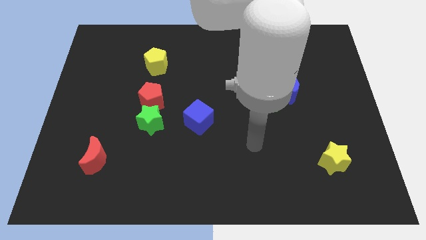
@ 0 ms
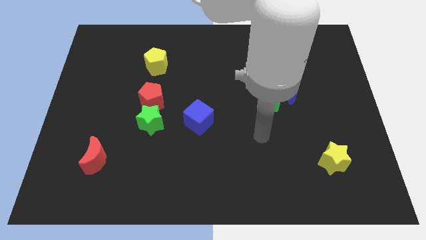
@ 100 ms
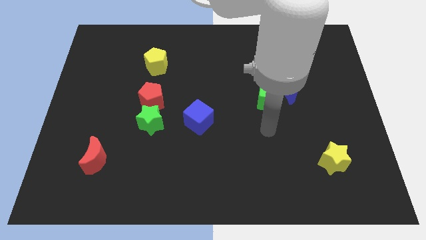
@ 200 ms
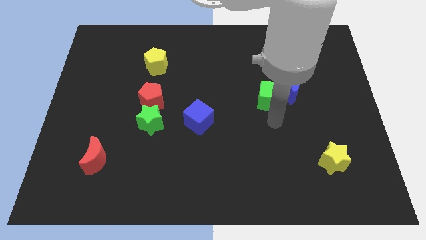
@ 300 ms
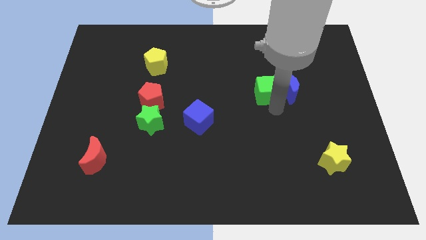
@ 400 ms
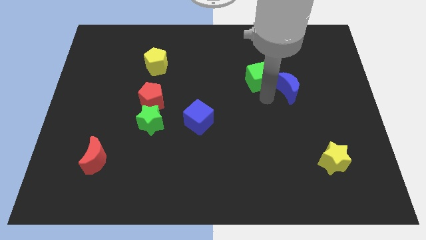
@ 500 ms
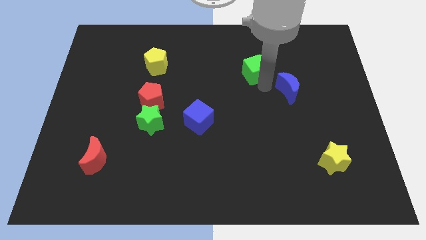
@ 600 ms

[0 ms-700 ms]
separate the blue moon from the green cube

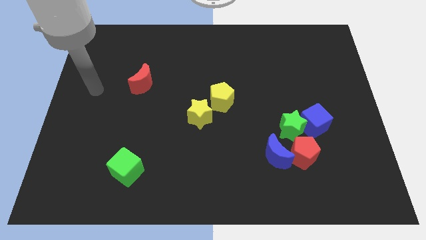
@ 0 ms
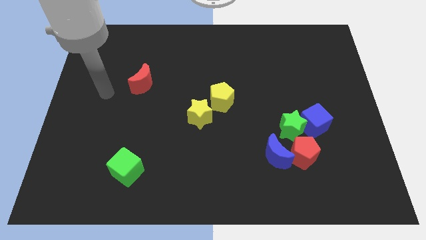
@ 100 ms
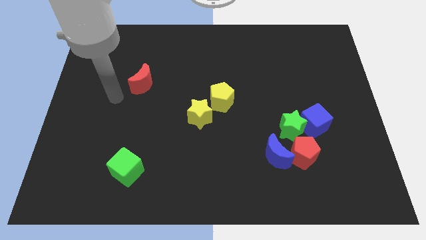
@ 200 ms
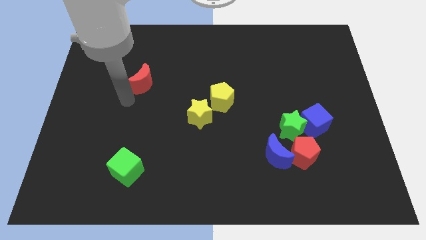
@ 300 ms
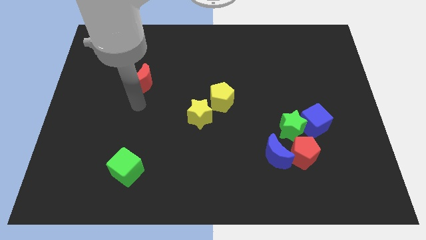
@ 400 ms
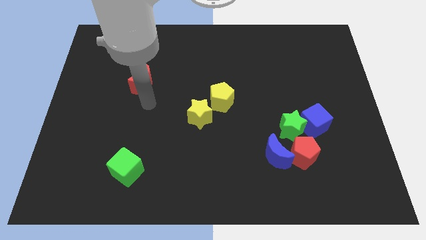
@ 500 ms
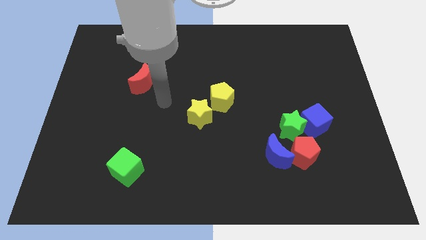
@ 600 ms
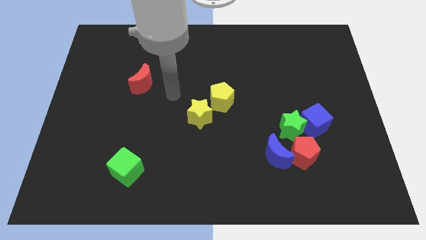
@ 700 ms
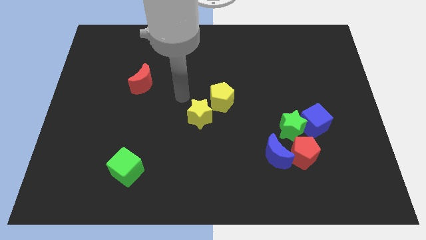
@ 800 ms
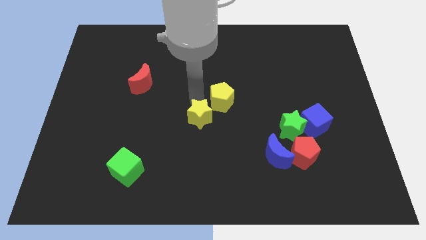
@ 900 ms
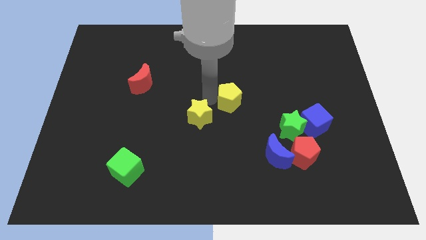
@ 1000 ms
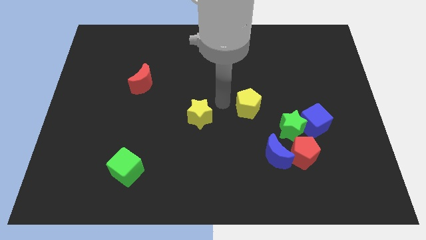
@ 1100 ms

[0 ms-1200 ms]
pull the yellow star apart from the yellow pentagon

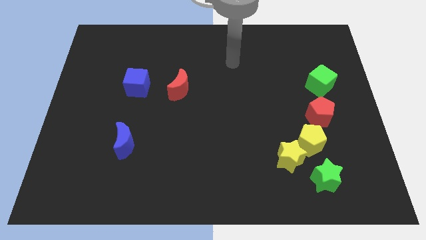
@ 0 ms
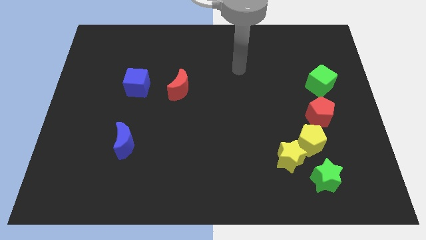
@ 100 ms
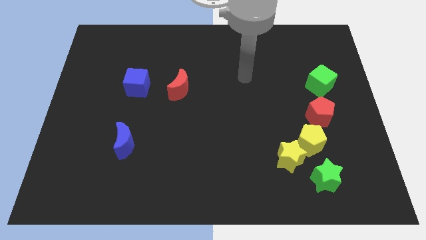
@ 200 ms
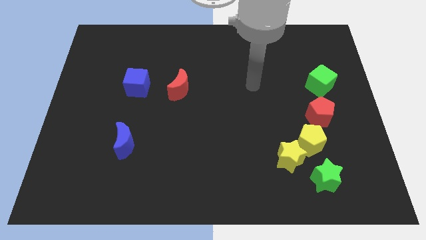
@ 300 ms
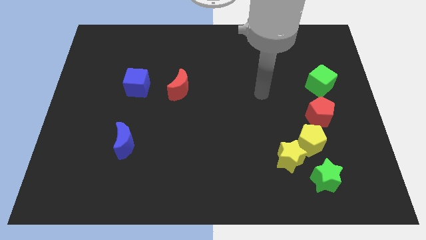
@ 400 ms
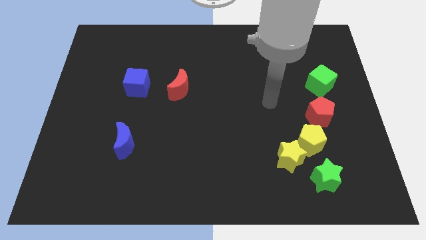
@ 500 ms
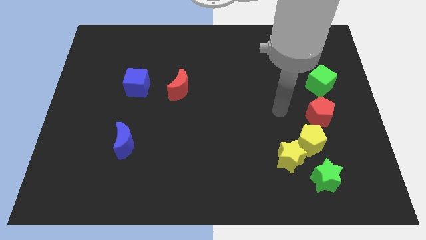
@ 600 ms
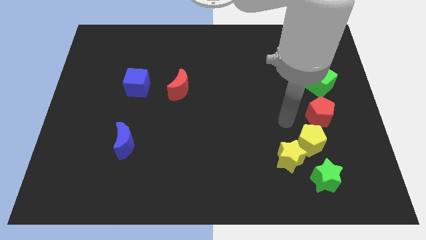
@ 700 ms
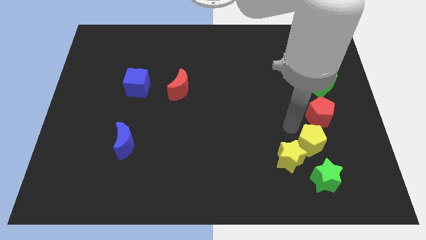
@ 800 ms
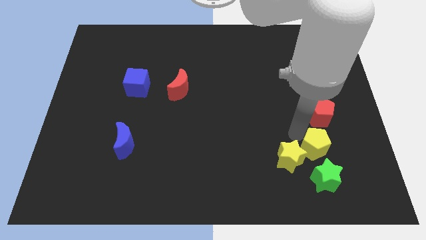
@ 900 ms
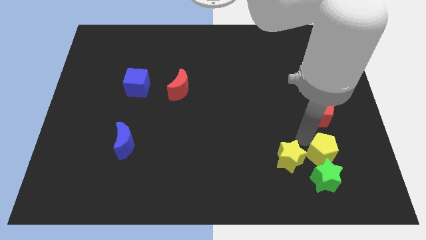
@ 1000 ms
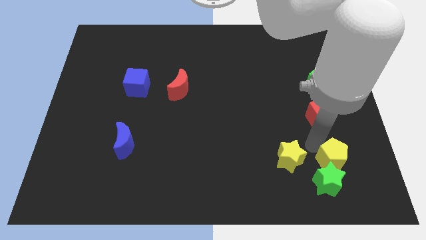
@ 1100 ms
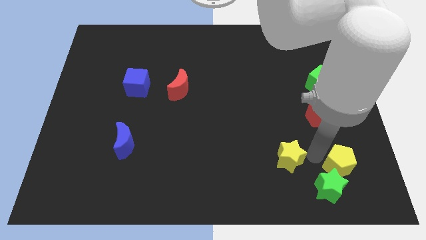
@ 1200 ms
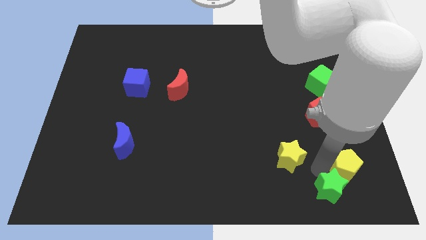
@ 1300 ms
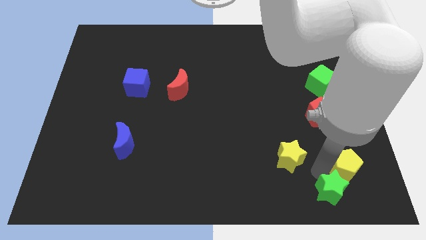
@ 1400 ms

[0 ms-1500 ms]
move the yellow star away from the yellow pentagon and green star

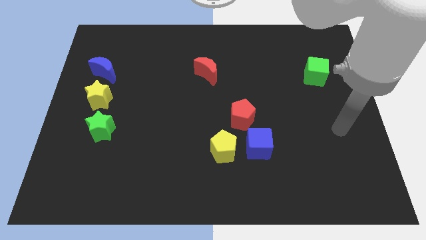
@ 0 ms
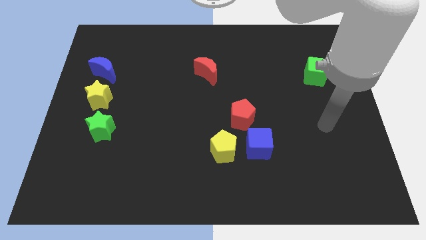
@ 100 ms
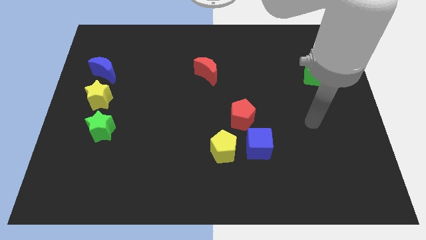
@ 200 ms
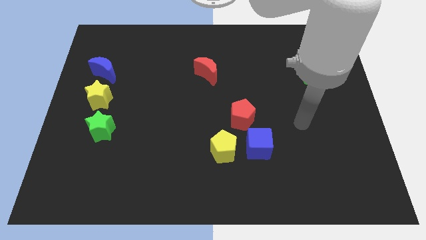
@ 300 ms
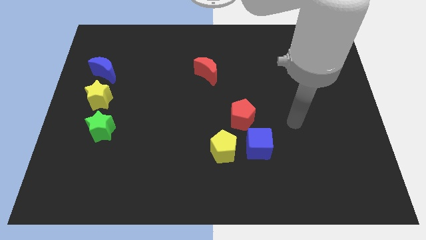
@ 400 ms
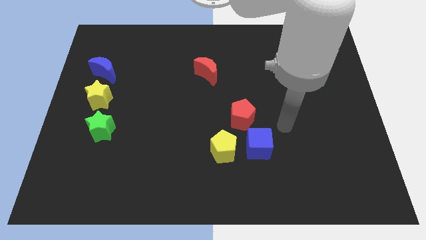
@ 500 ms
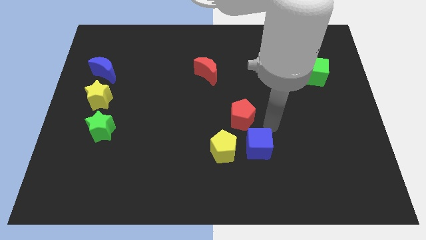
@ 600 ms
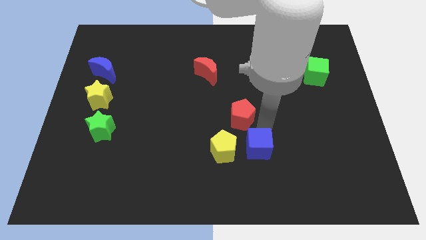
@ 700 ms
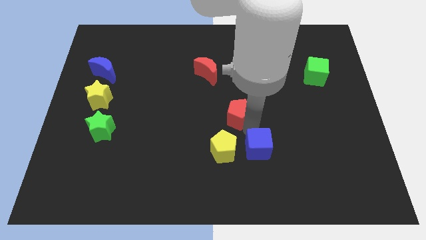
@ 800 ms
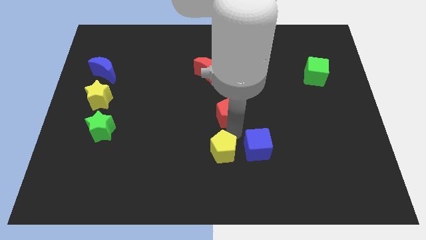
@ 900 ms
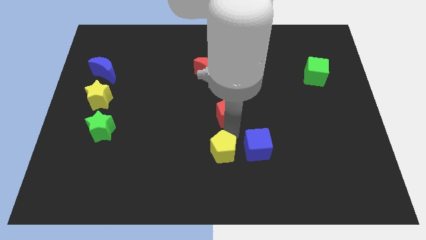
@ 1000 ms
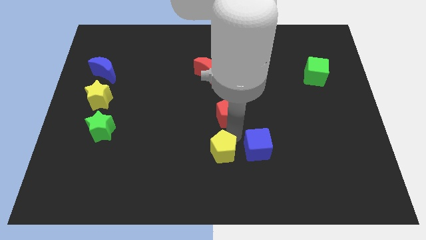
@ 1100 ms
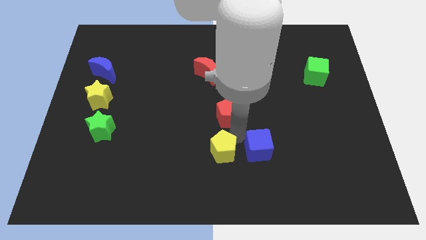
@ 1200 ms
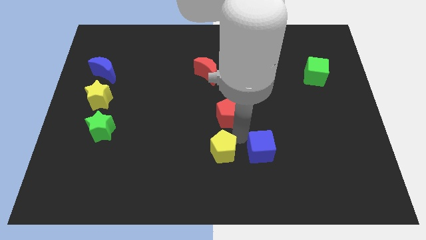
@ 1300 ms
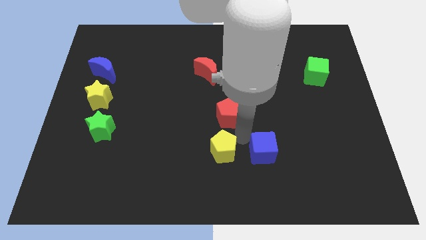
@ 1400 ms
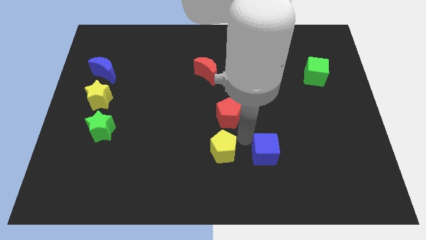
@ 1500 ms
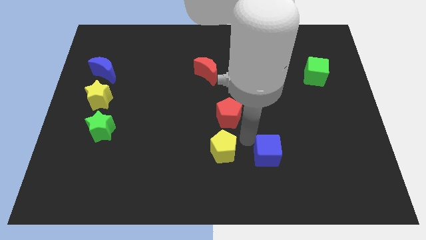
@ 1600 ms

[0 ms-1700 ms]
pull the blue cube apart from the yellow pentagon and red pentagon

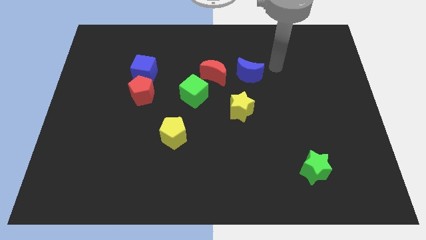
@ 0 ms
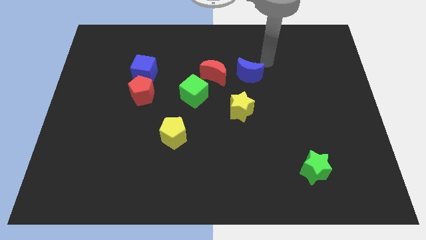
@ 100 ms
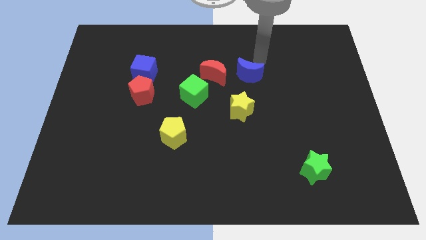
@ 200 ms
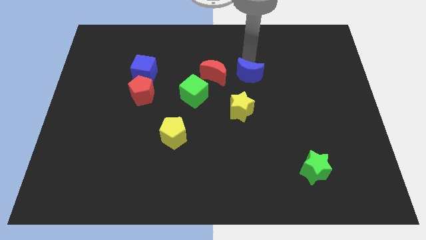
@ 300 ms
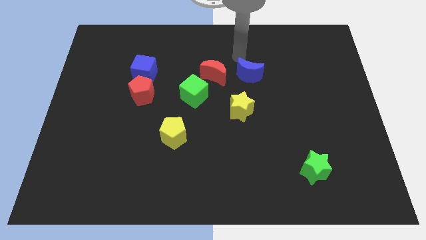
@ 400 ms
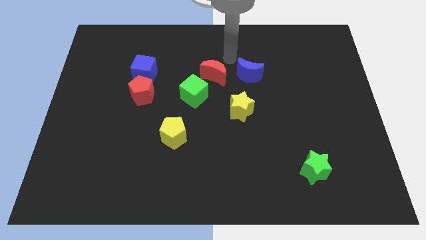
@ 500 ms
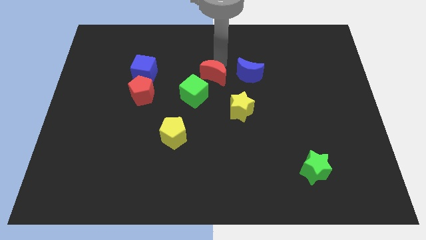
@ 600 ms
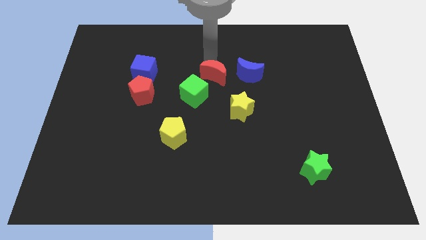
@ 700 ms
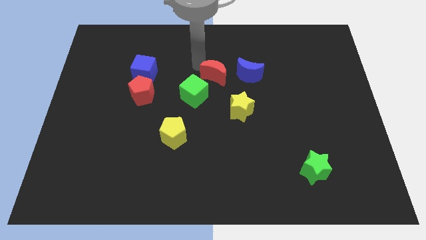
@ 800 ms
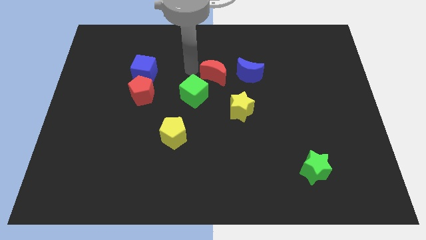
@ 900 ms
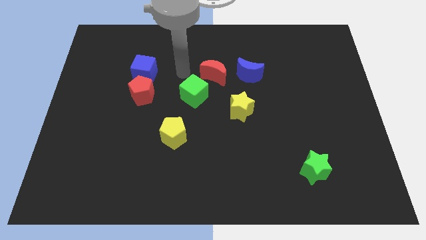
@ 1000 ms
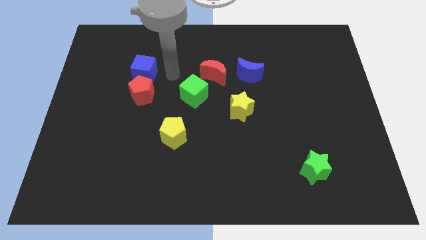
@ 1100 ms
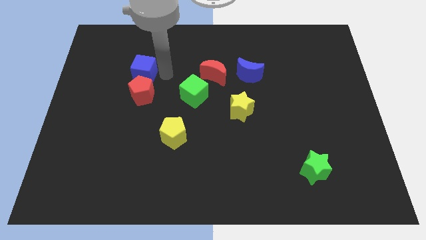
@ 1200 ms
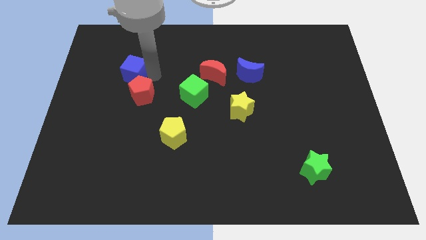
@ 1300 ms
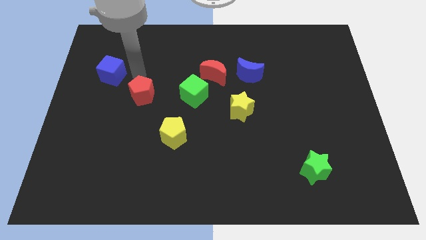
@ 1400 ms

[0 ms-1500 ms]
separate the red pentagon from the blue cube

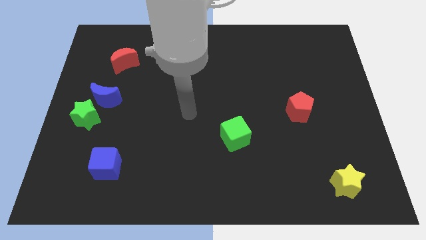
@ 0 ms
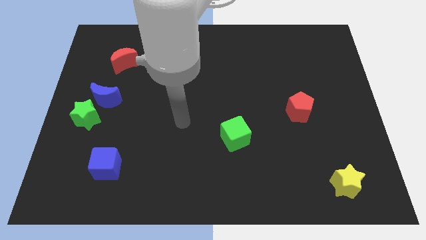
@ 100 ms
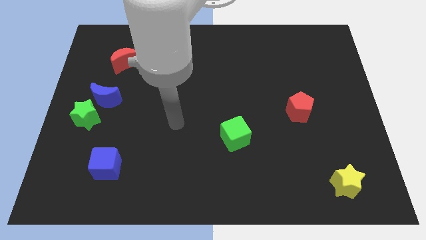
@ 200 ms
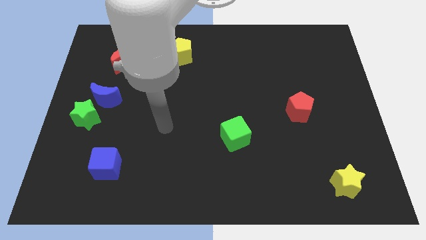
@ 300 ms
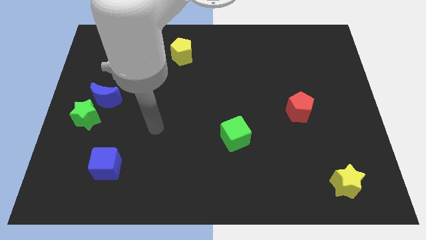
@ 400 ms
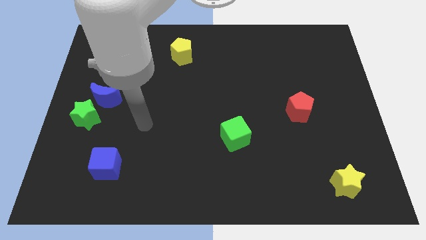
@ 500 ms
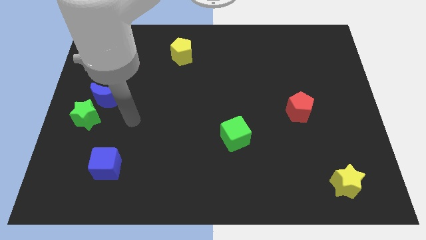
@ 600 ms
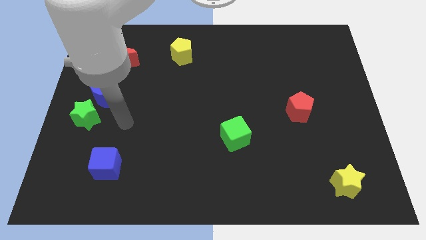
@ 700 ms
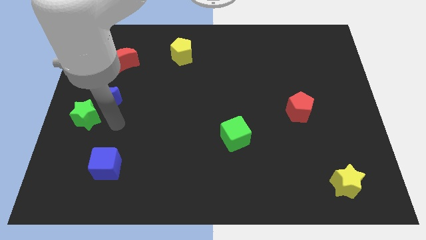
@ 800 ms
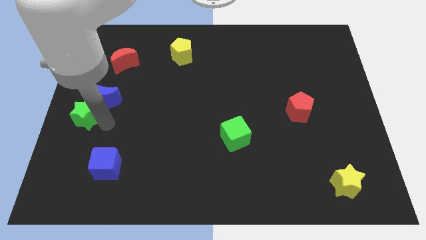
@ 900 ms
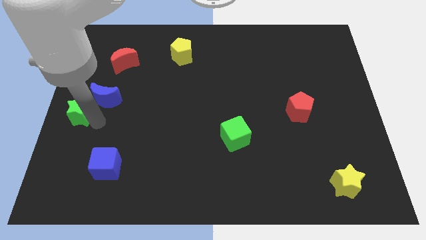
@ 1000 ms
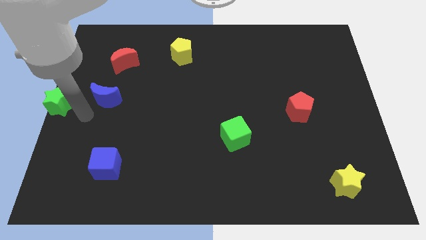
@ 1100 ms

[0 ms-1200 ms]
move the blue moon away from the green star

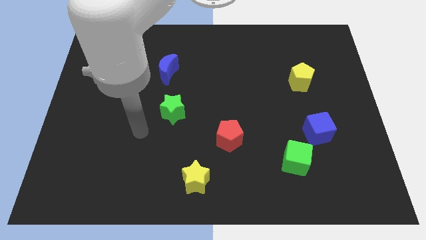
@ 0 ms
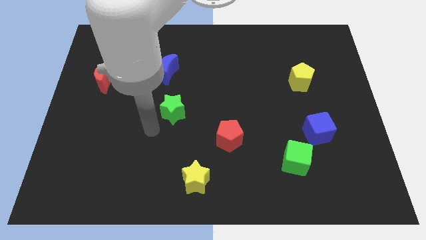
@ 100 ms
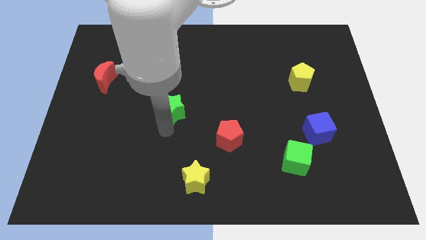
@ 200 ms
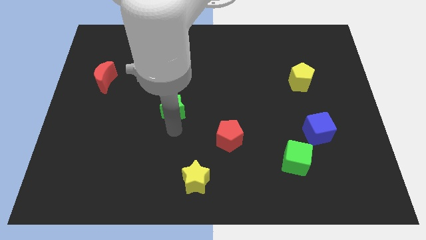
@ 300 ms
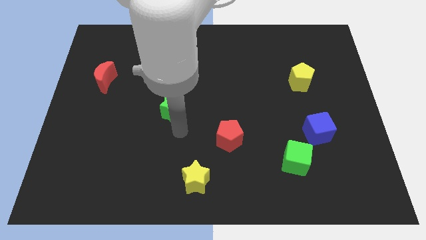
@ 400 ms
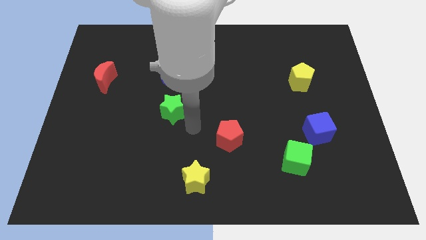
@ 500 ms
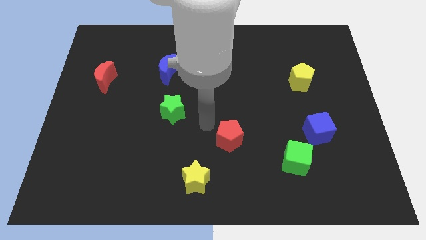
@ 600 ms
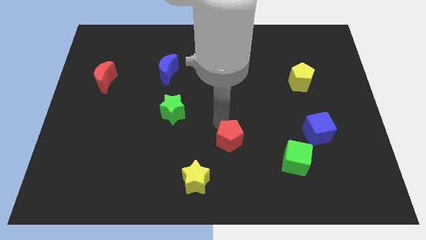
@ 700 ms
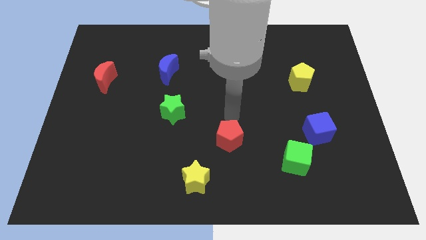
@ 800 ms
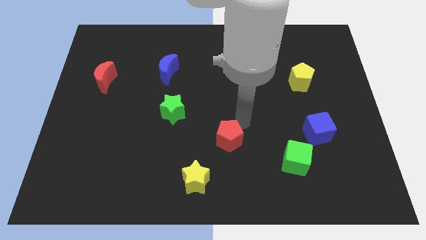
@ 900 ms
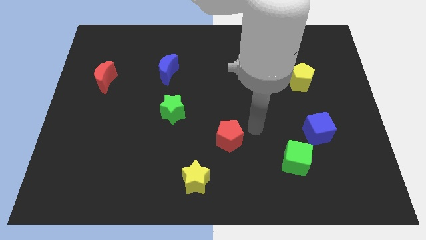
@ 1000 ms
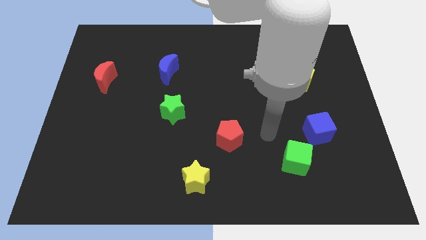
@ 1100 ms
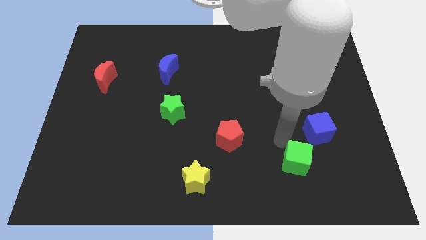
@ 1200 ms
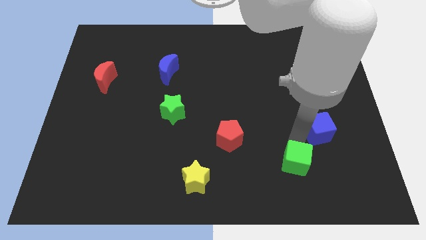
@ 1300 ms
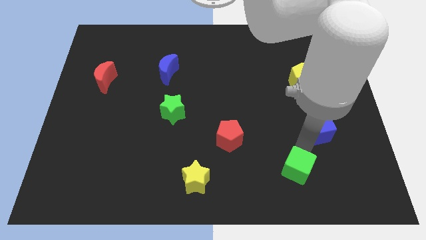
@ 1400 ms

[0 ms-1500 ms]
separate the blue cube from the green cube
